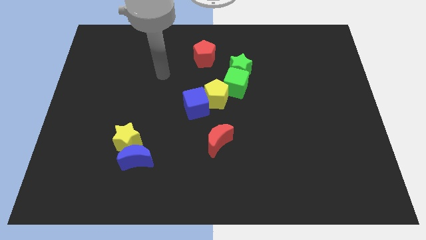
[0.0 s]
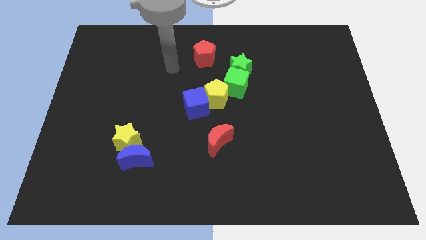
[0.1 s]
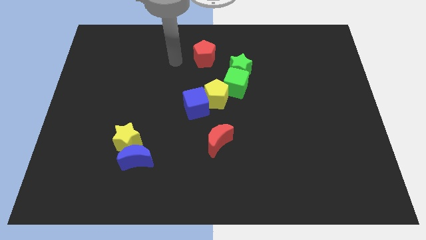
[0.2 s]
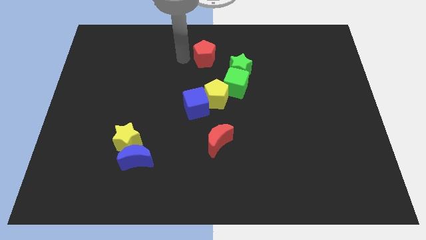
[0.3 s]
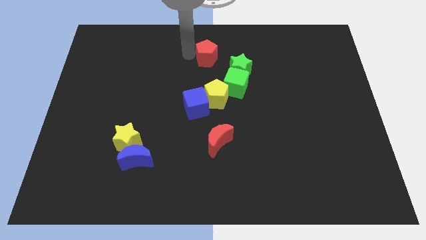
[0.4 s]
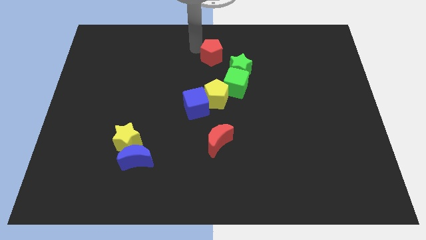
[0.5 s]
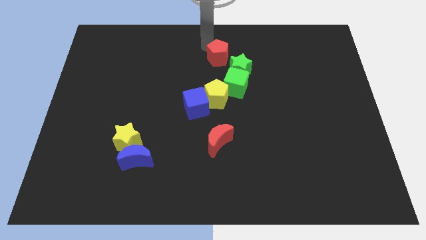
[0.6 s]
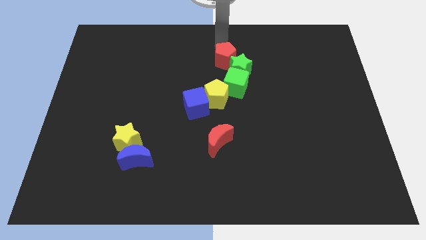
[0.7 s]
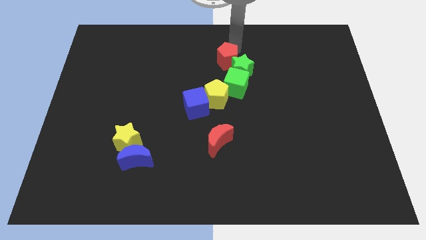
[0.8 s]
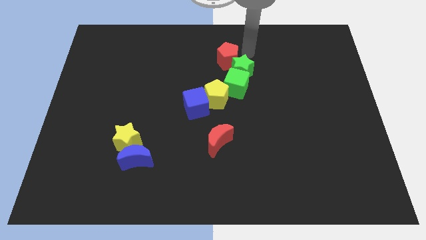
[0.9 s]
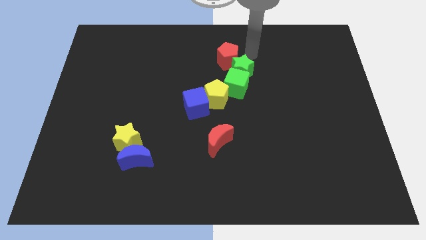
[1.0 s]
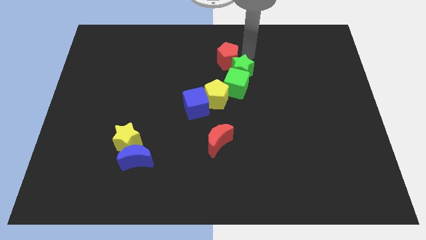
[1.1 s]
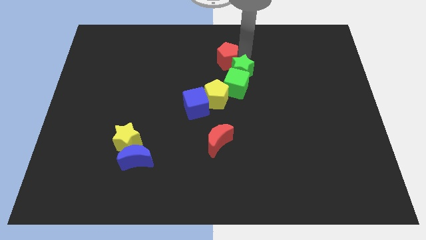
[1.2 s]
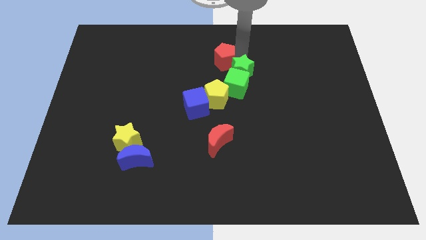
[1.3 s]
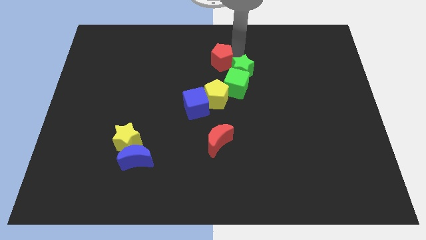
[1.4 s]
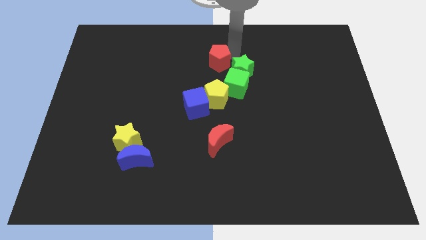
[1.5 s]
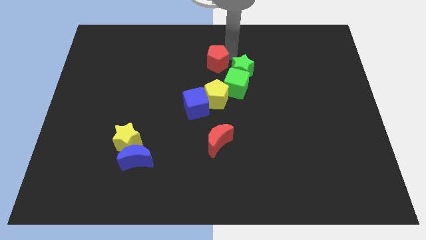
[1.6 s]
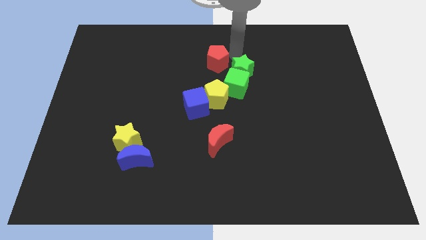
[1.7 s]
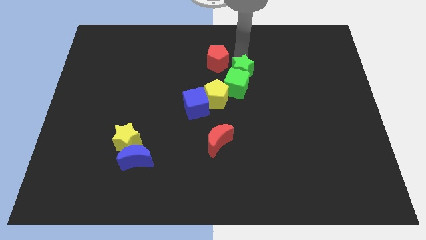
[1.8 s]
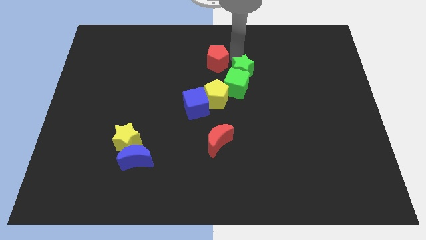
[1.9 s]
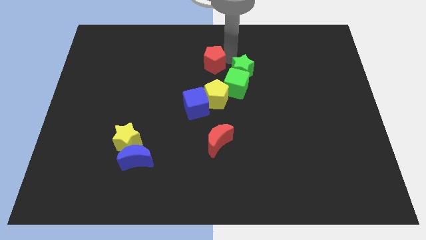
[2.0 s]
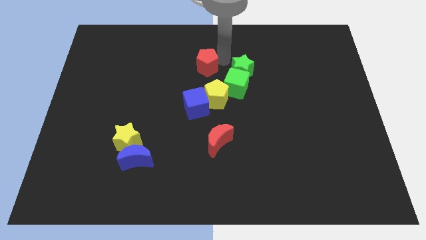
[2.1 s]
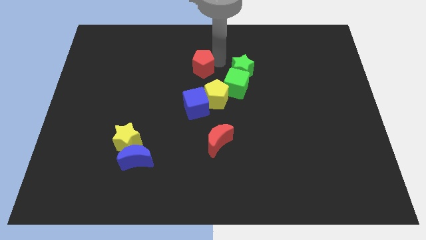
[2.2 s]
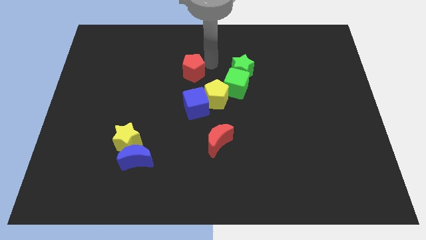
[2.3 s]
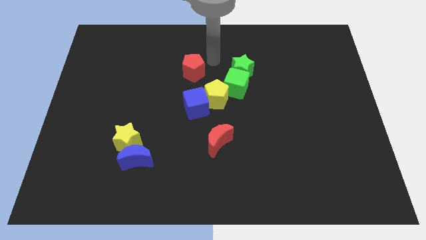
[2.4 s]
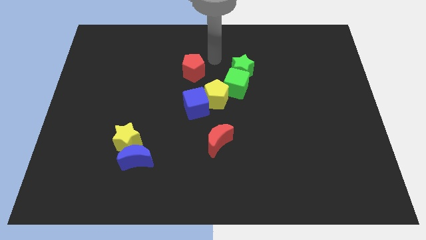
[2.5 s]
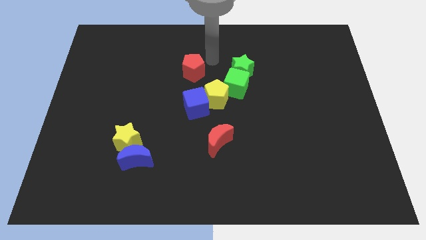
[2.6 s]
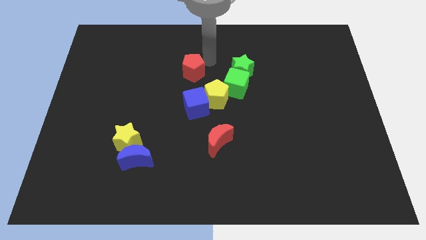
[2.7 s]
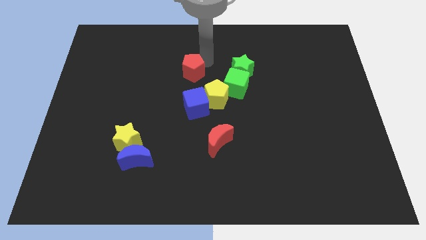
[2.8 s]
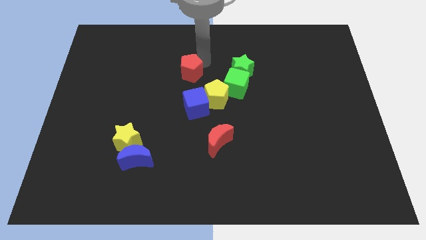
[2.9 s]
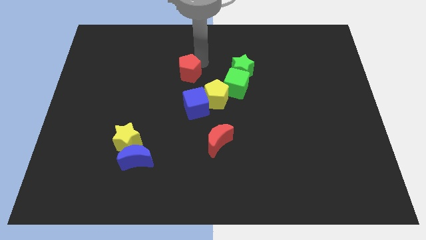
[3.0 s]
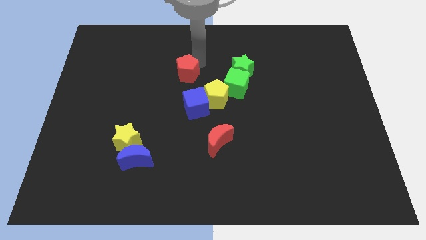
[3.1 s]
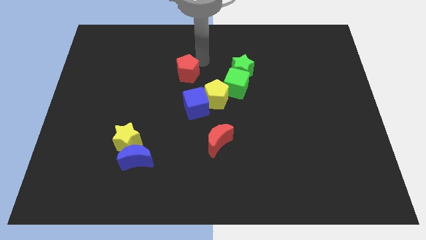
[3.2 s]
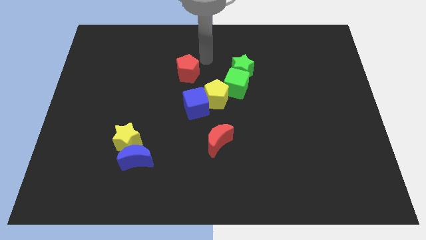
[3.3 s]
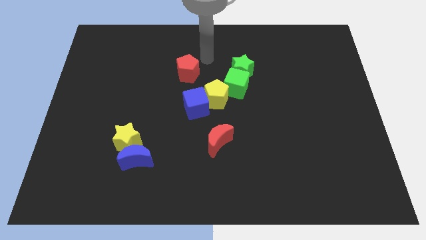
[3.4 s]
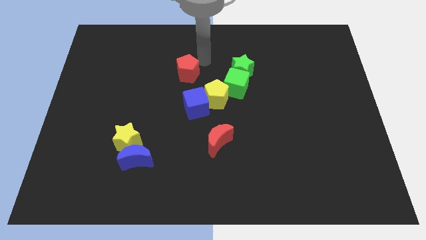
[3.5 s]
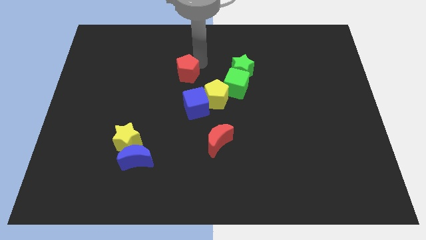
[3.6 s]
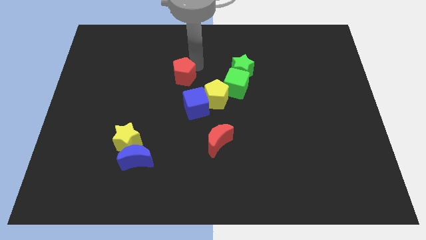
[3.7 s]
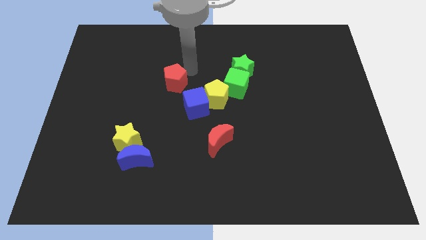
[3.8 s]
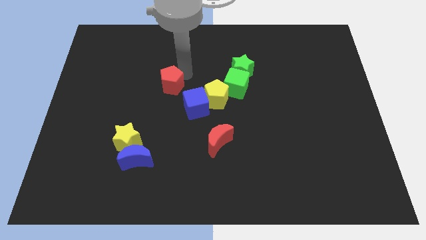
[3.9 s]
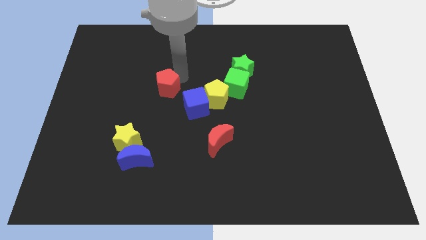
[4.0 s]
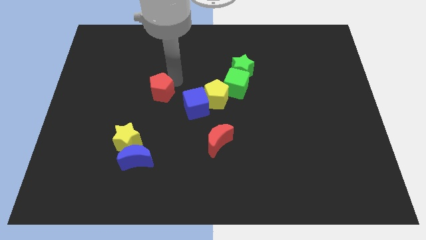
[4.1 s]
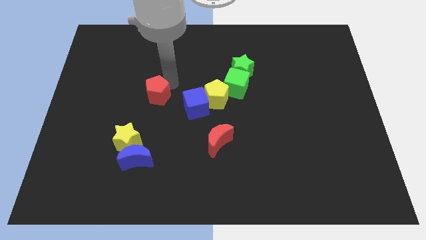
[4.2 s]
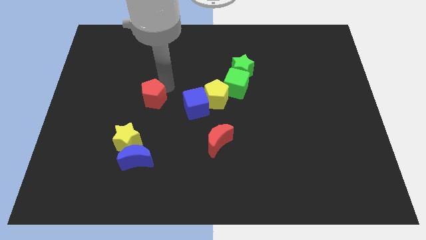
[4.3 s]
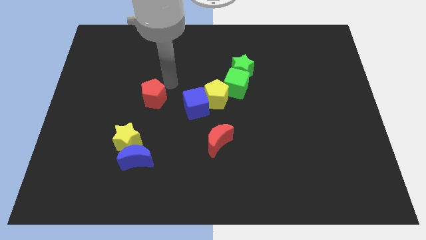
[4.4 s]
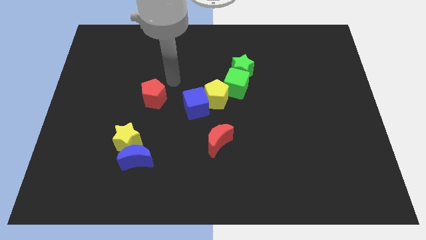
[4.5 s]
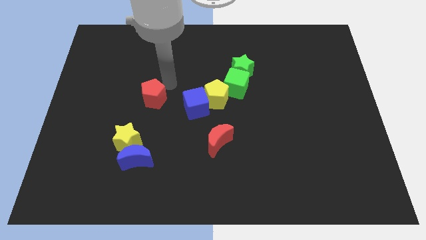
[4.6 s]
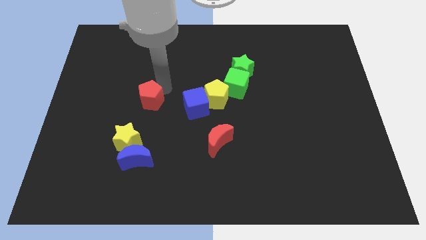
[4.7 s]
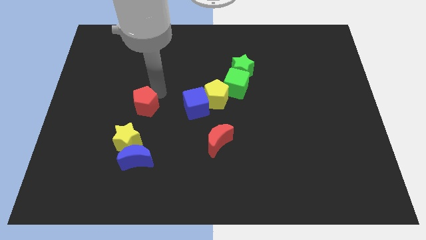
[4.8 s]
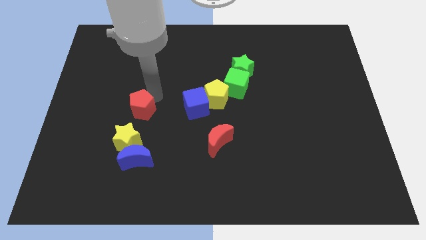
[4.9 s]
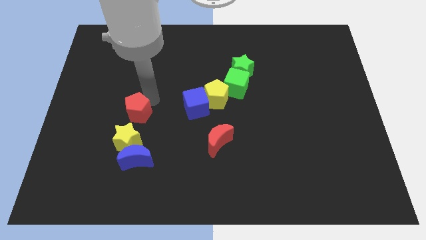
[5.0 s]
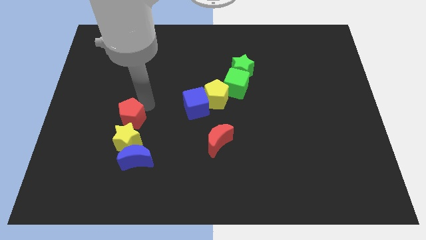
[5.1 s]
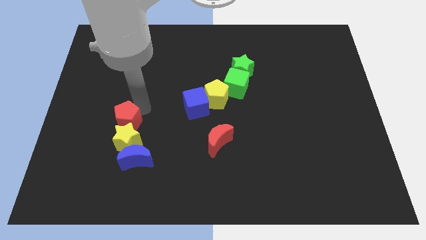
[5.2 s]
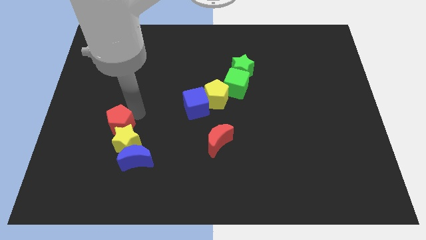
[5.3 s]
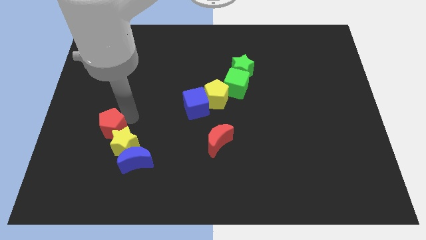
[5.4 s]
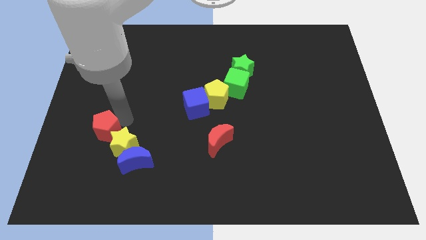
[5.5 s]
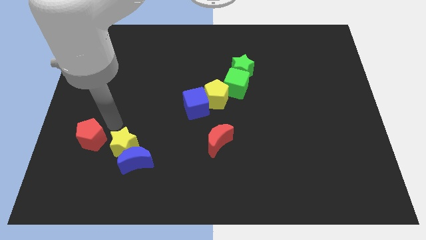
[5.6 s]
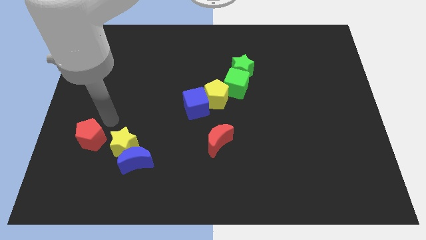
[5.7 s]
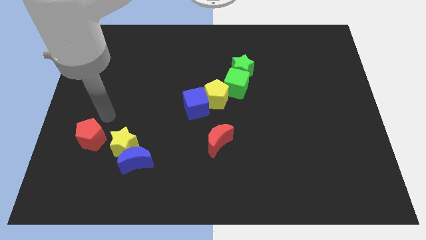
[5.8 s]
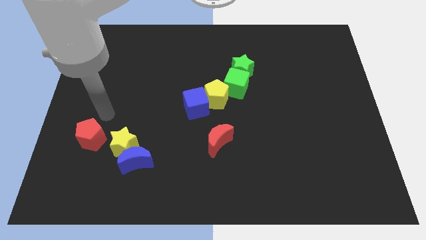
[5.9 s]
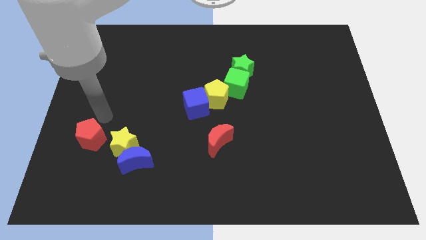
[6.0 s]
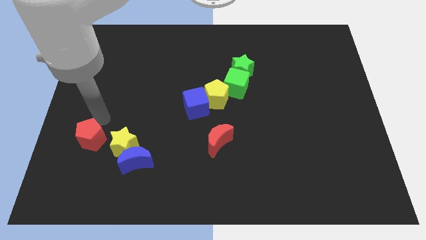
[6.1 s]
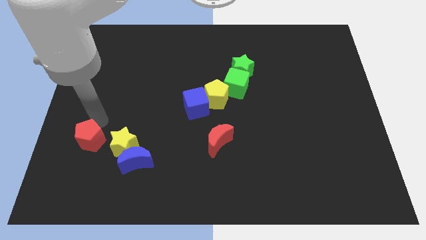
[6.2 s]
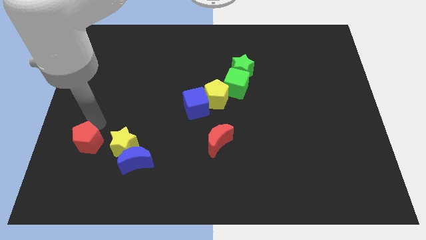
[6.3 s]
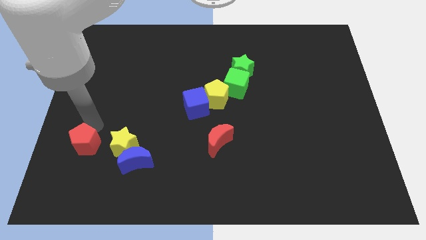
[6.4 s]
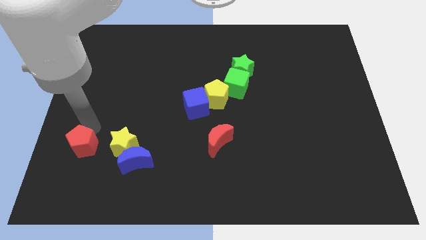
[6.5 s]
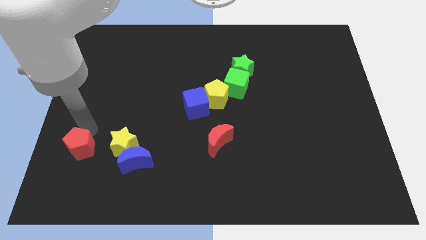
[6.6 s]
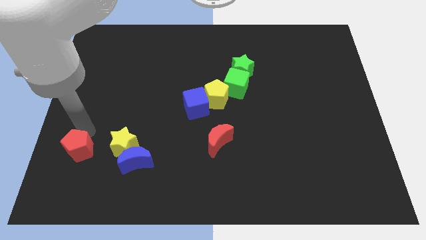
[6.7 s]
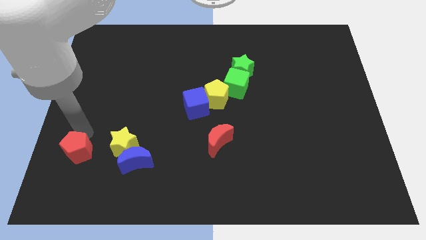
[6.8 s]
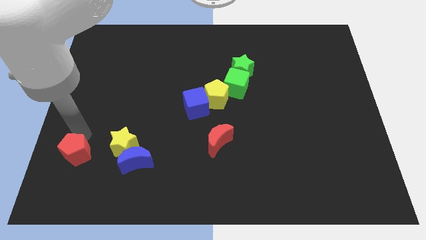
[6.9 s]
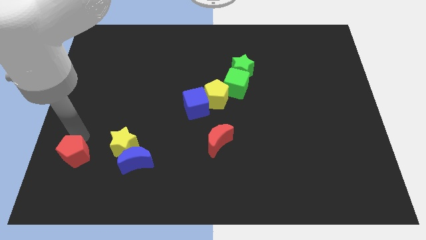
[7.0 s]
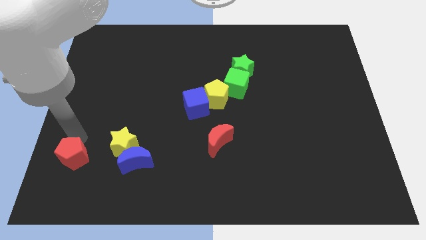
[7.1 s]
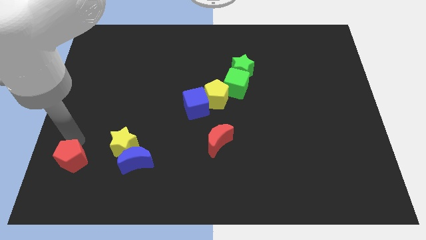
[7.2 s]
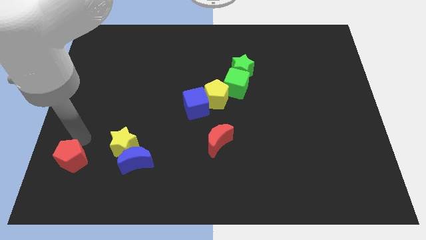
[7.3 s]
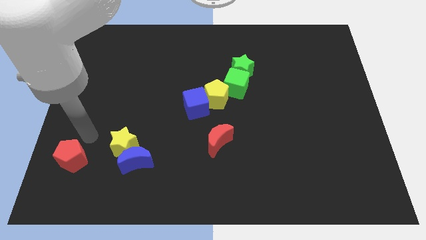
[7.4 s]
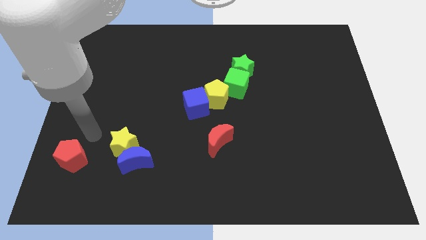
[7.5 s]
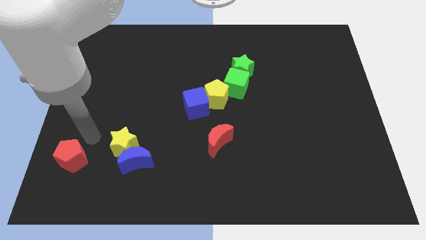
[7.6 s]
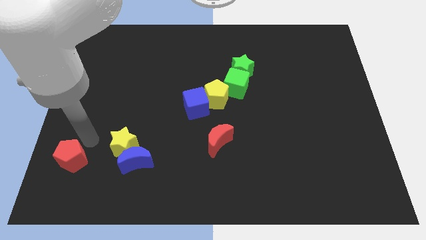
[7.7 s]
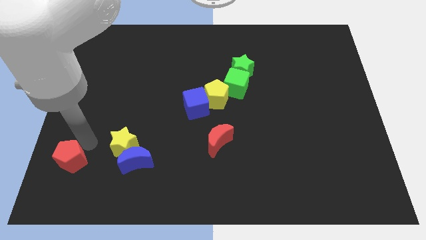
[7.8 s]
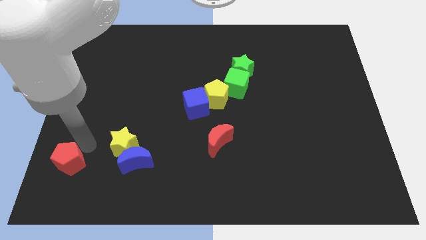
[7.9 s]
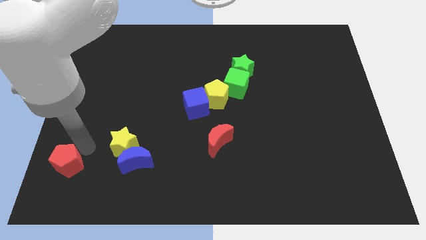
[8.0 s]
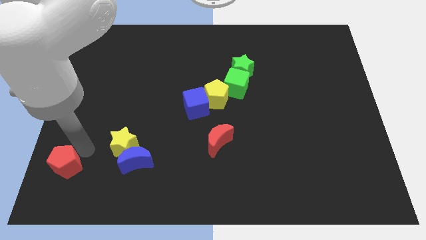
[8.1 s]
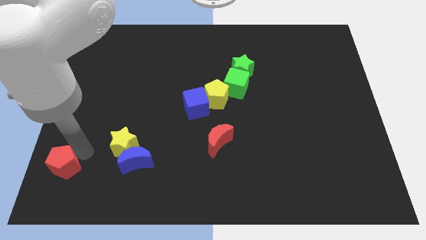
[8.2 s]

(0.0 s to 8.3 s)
put the red pentagon to the lower left corner
